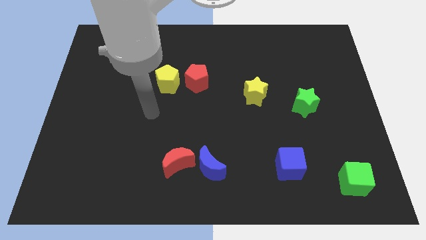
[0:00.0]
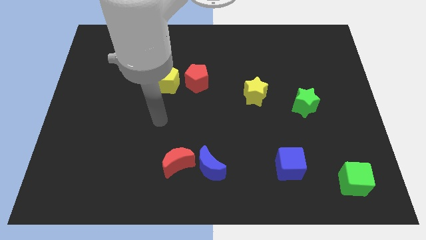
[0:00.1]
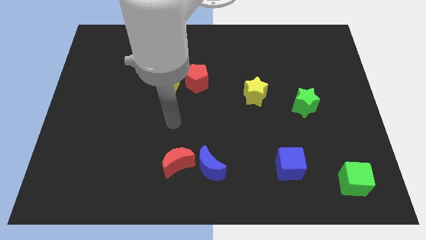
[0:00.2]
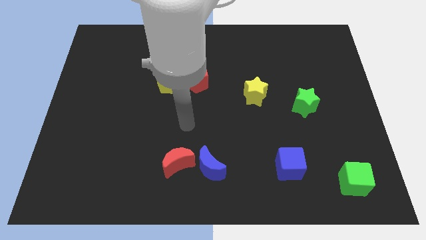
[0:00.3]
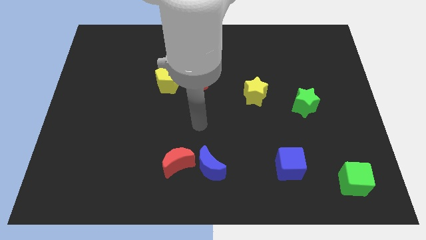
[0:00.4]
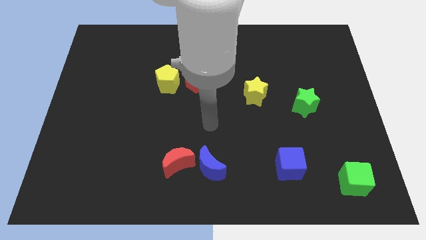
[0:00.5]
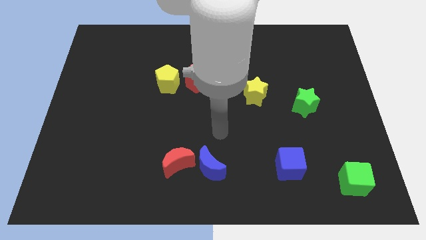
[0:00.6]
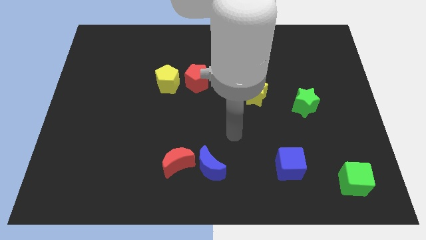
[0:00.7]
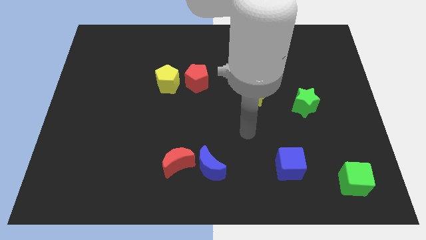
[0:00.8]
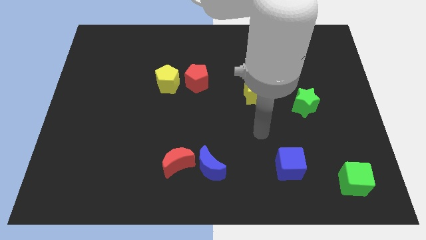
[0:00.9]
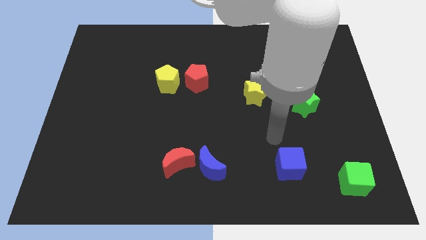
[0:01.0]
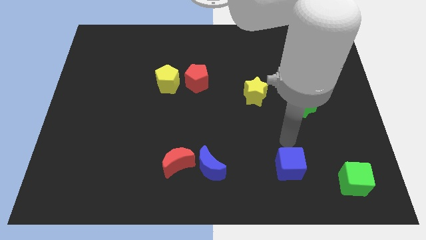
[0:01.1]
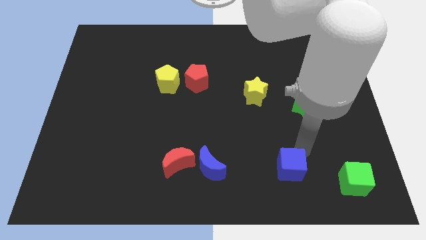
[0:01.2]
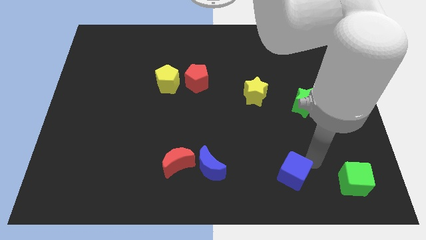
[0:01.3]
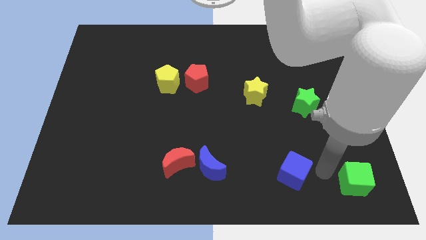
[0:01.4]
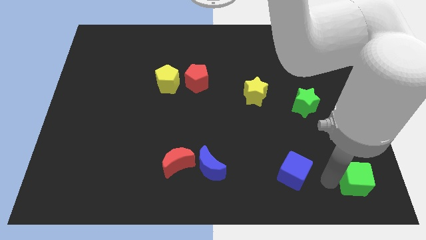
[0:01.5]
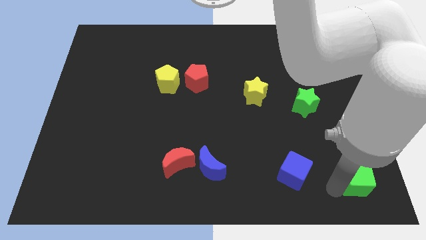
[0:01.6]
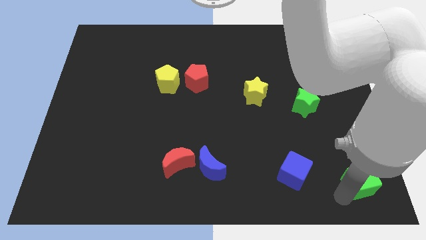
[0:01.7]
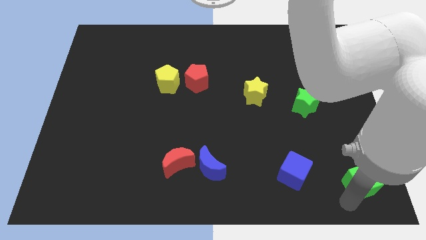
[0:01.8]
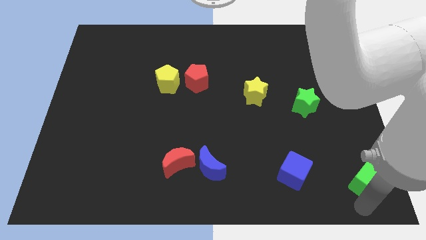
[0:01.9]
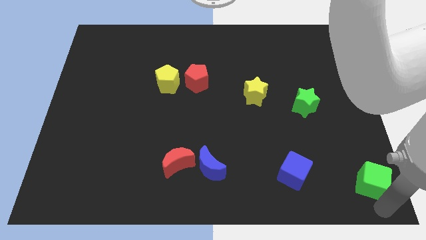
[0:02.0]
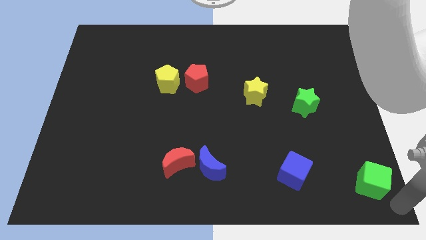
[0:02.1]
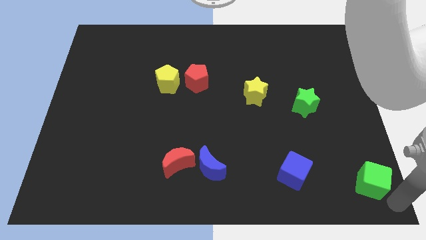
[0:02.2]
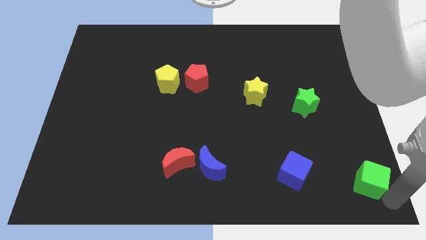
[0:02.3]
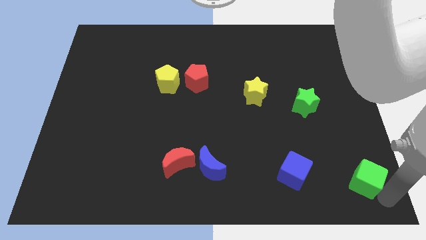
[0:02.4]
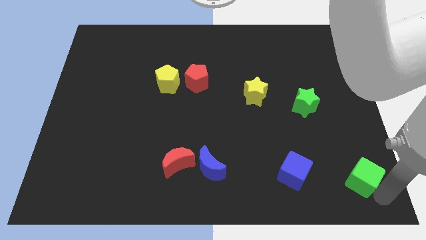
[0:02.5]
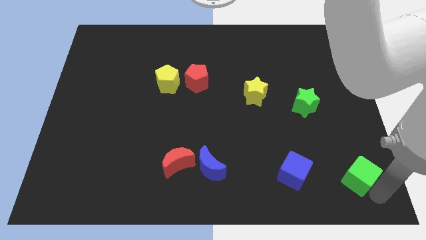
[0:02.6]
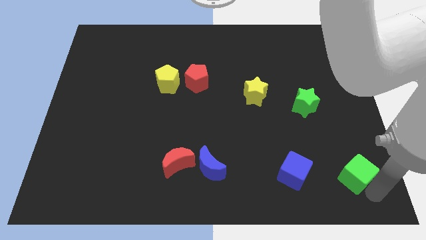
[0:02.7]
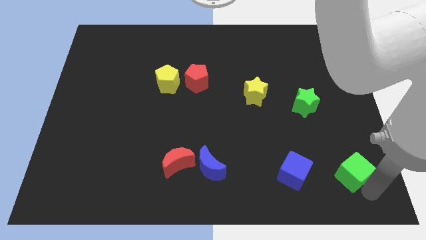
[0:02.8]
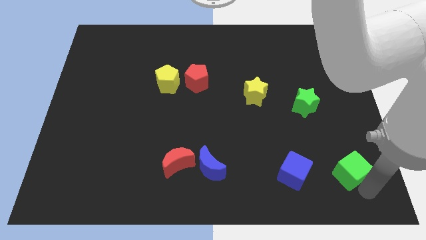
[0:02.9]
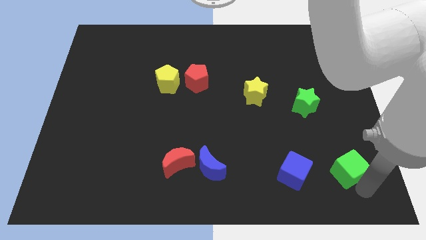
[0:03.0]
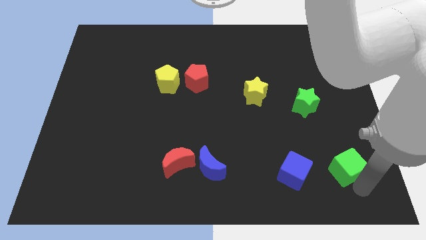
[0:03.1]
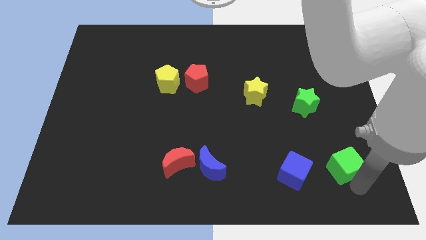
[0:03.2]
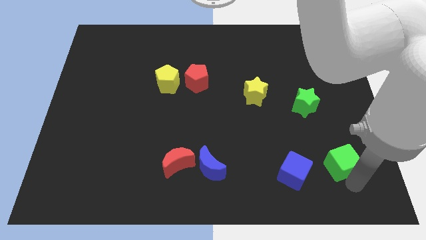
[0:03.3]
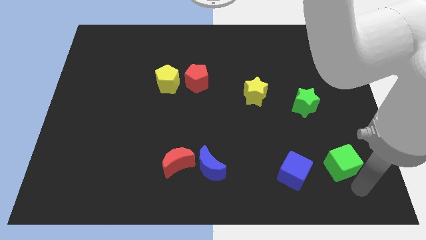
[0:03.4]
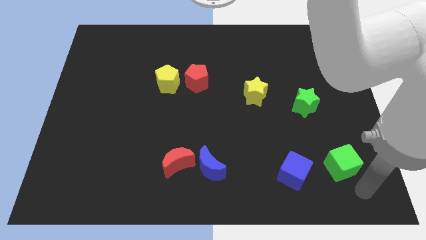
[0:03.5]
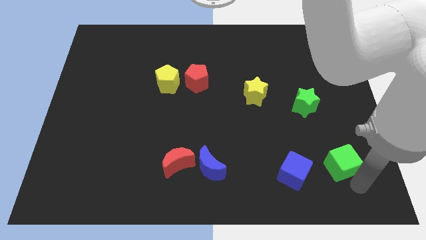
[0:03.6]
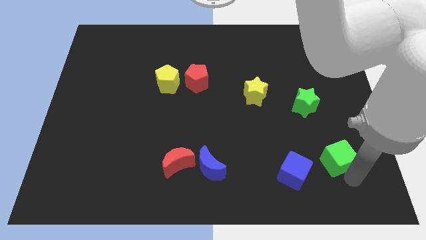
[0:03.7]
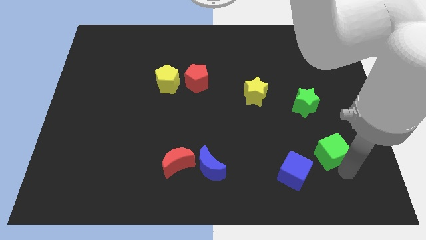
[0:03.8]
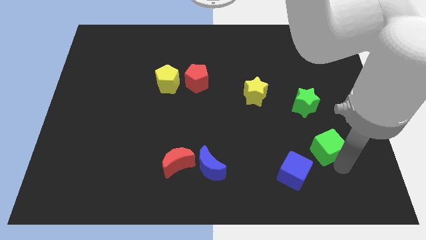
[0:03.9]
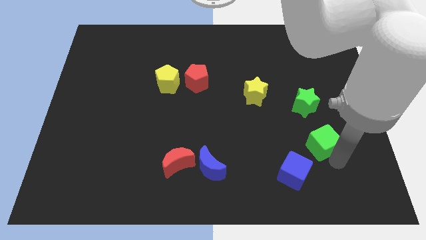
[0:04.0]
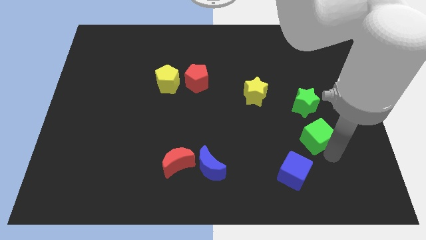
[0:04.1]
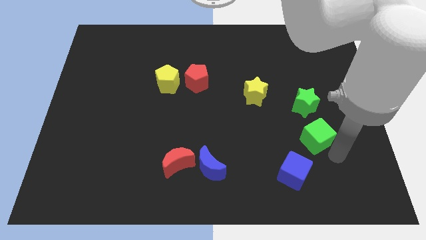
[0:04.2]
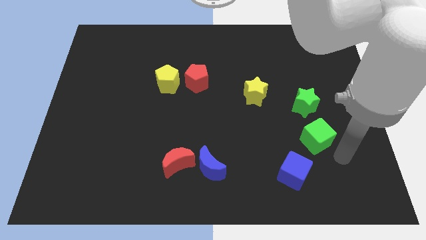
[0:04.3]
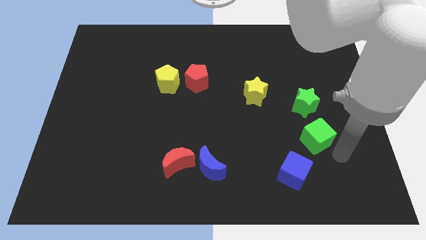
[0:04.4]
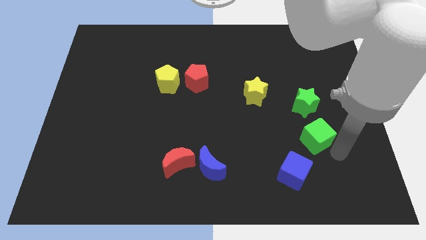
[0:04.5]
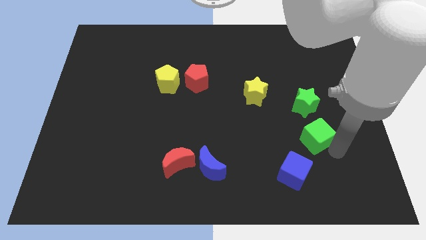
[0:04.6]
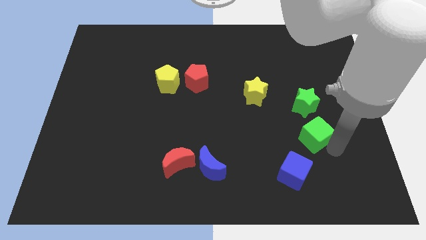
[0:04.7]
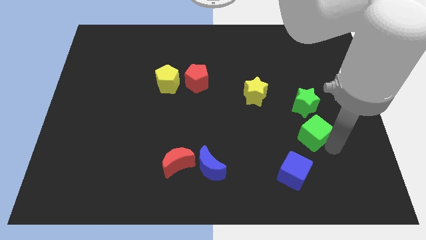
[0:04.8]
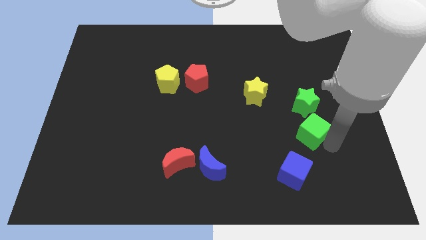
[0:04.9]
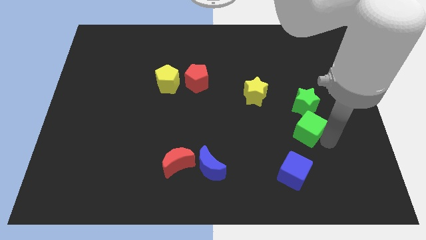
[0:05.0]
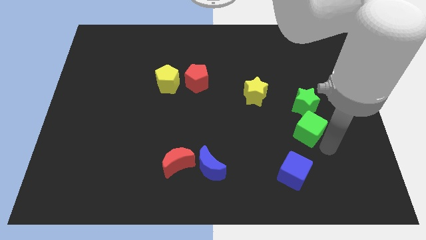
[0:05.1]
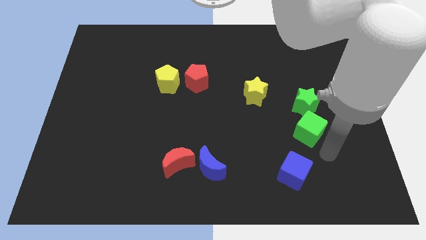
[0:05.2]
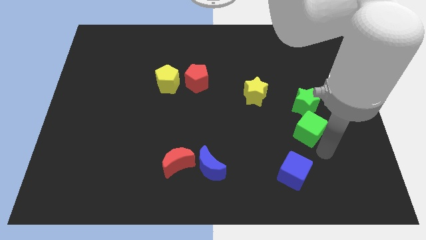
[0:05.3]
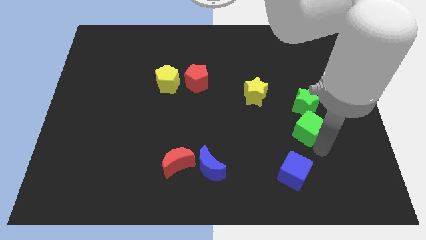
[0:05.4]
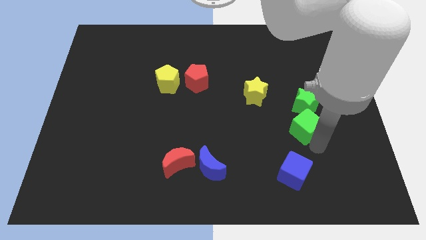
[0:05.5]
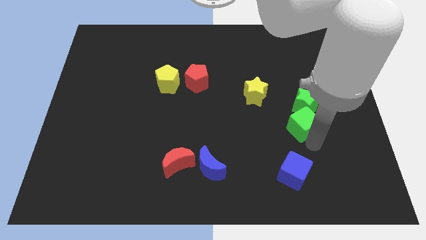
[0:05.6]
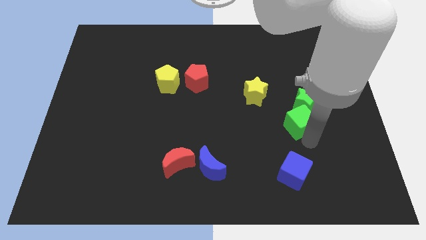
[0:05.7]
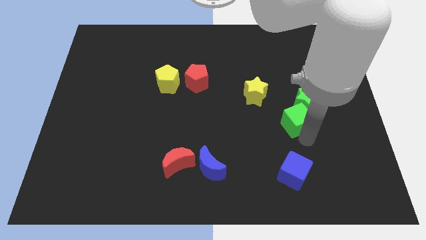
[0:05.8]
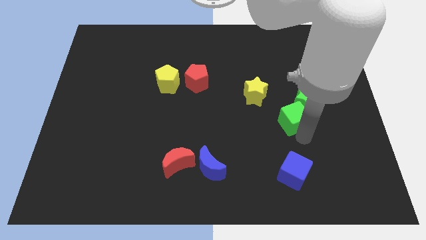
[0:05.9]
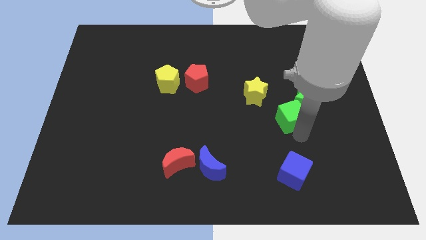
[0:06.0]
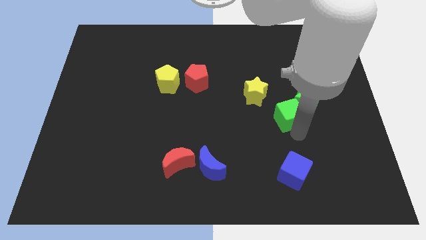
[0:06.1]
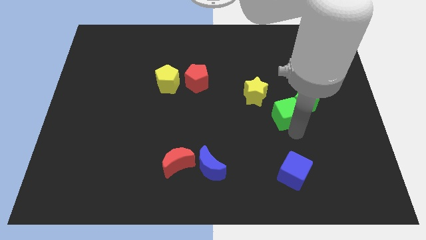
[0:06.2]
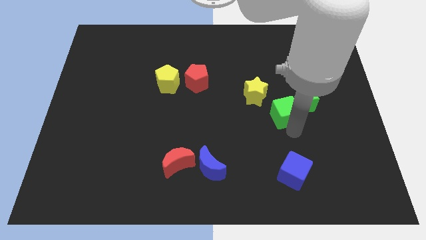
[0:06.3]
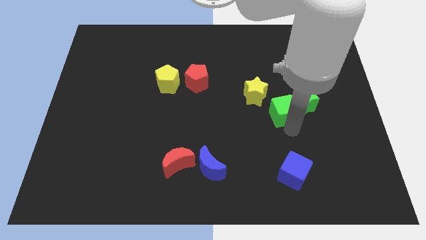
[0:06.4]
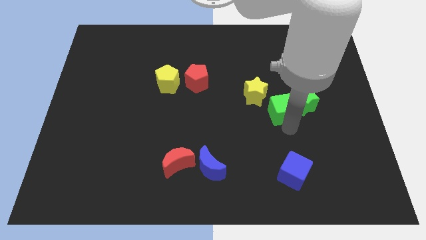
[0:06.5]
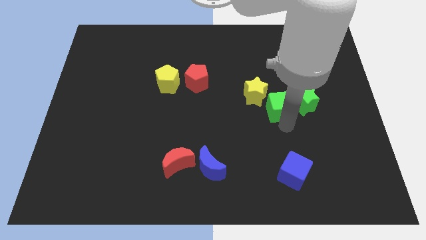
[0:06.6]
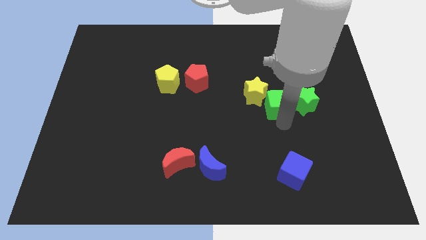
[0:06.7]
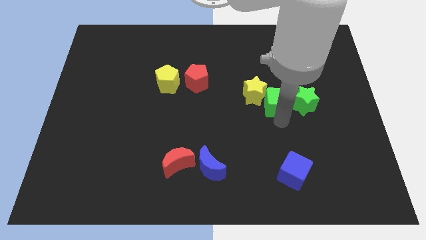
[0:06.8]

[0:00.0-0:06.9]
put the green cube to the top left side of the green star
